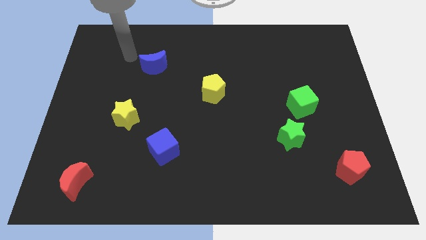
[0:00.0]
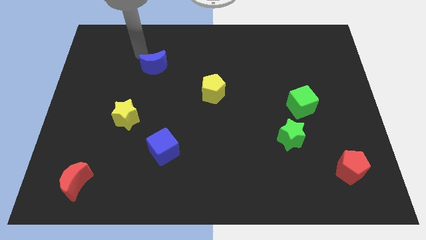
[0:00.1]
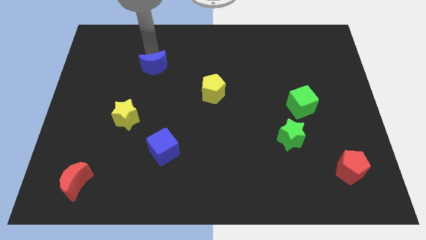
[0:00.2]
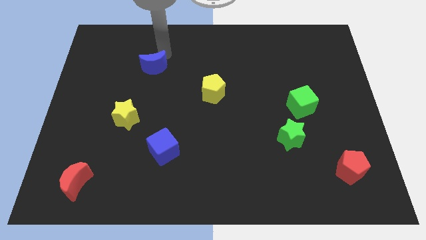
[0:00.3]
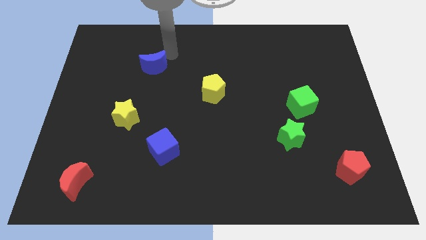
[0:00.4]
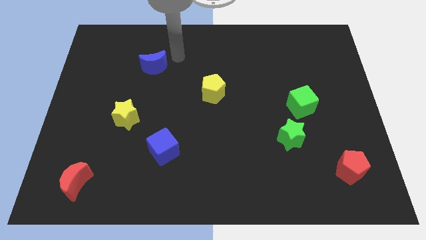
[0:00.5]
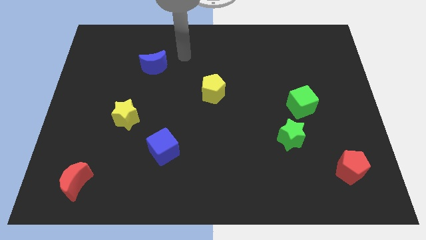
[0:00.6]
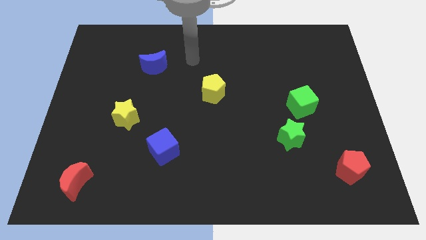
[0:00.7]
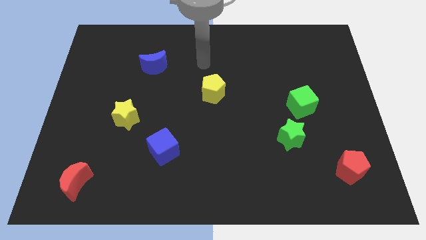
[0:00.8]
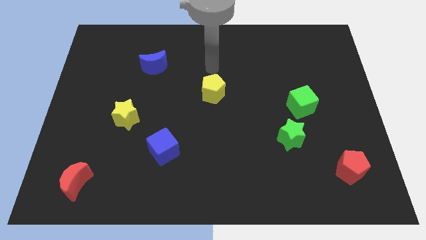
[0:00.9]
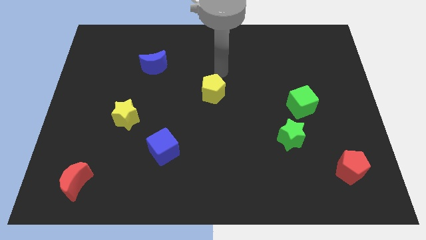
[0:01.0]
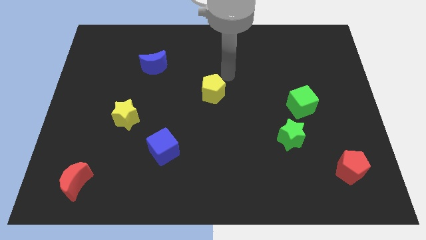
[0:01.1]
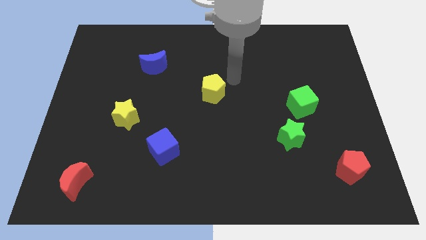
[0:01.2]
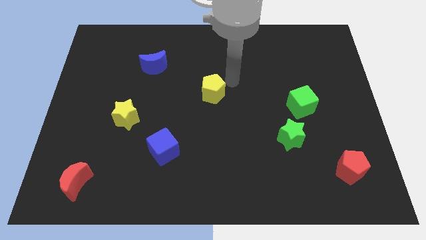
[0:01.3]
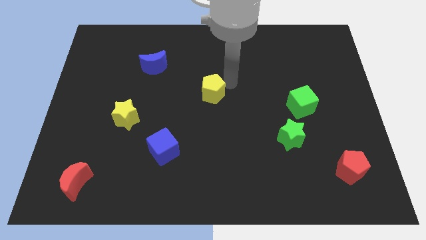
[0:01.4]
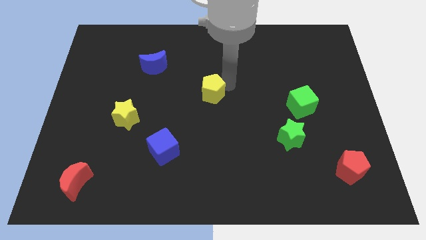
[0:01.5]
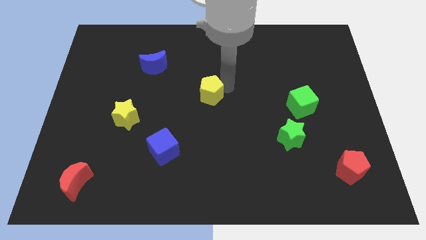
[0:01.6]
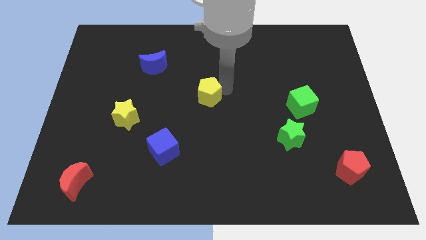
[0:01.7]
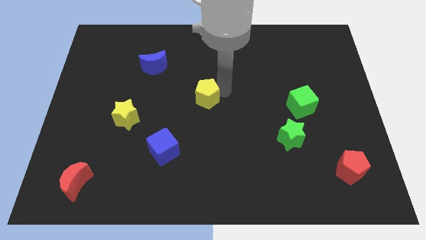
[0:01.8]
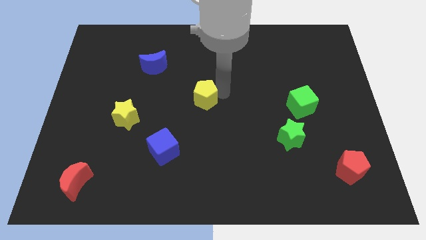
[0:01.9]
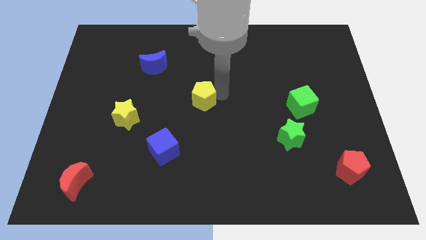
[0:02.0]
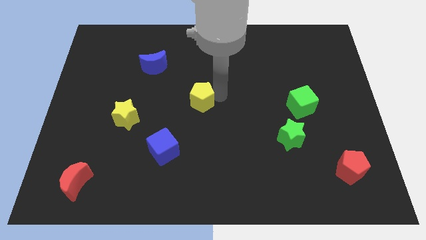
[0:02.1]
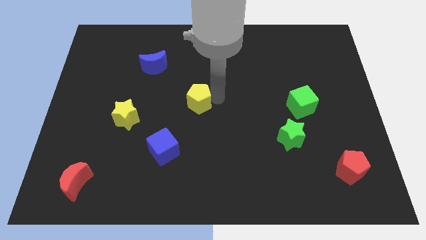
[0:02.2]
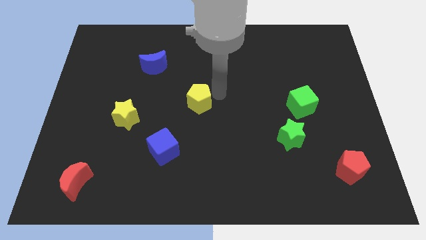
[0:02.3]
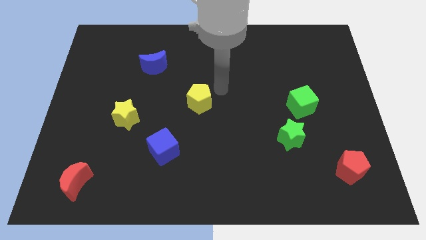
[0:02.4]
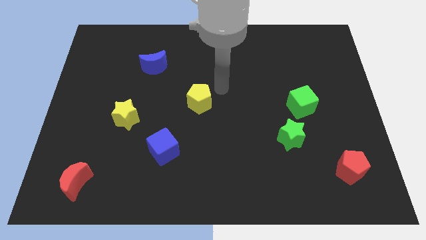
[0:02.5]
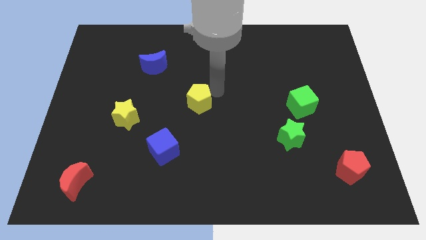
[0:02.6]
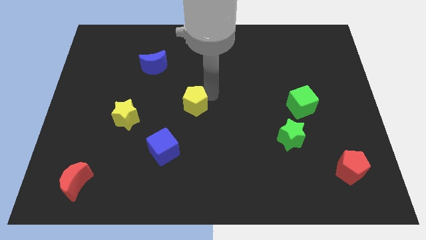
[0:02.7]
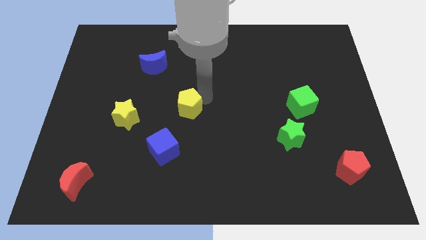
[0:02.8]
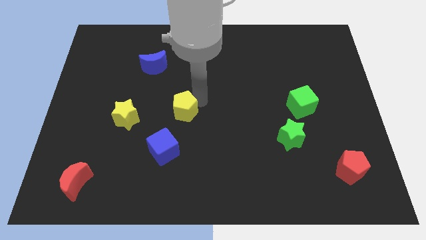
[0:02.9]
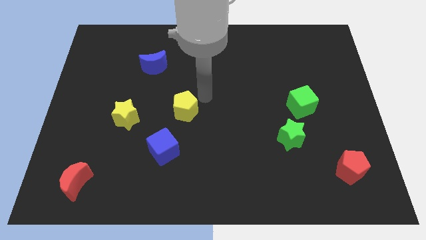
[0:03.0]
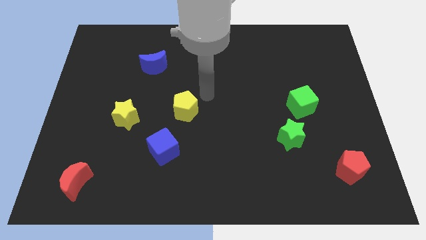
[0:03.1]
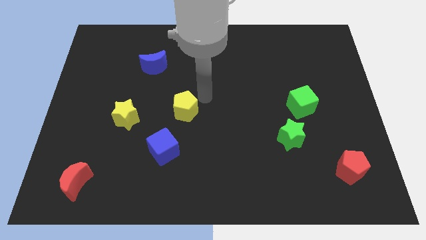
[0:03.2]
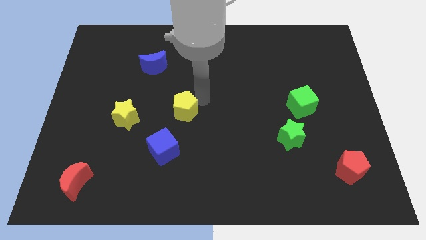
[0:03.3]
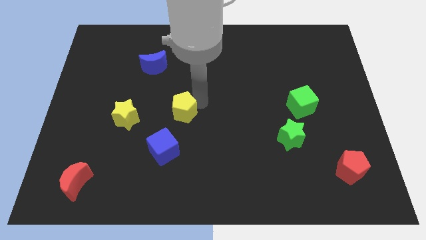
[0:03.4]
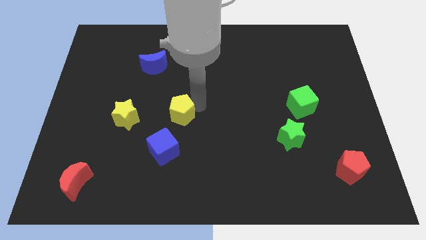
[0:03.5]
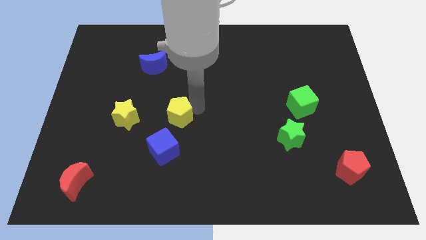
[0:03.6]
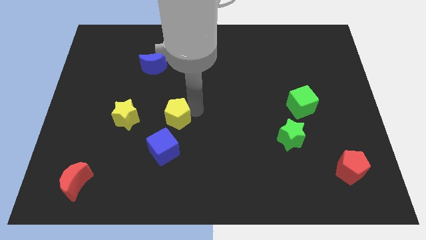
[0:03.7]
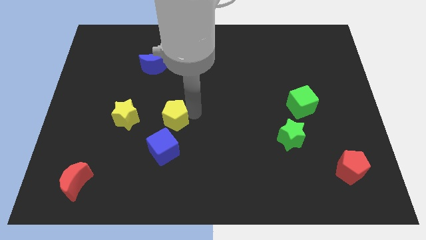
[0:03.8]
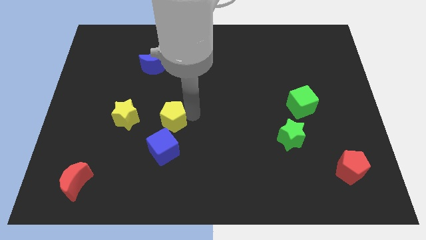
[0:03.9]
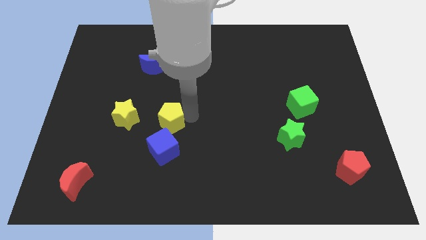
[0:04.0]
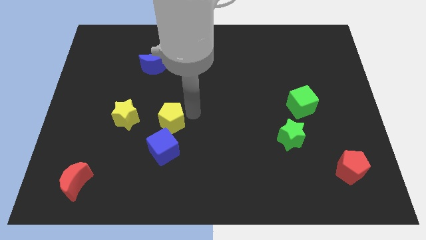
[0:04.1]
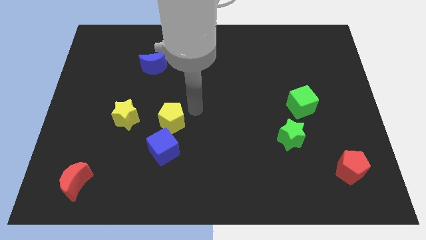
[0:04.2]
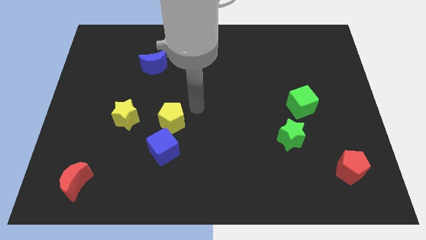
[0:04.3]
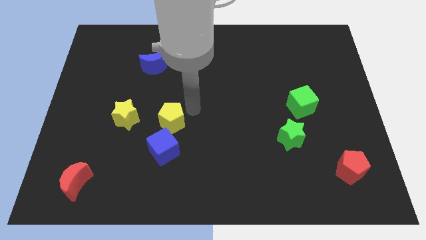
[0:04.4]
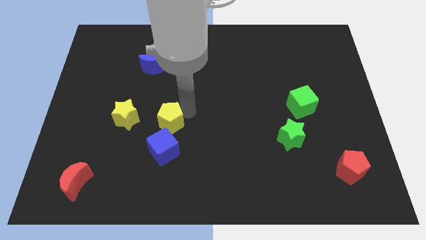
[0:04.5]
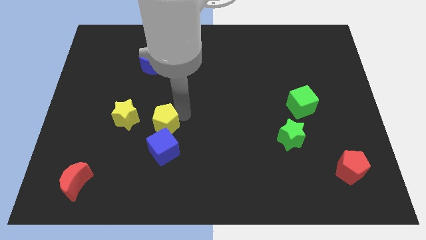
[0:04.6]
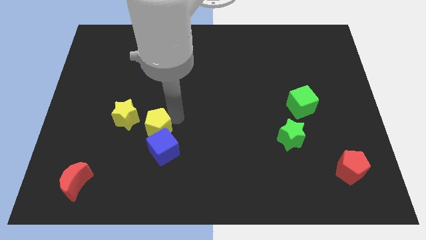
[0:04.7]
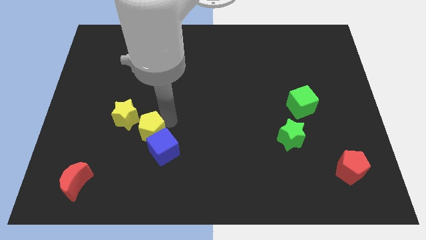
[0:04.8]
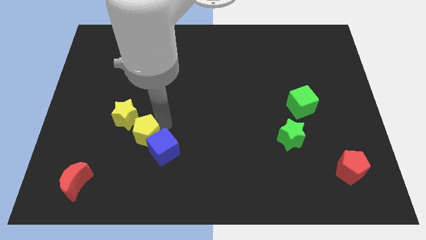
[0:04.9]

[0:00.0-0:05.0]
move the yellow pentagon just left of the blue cube

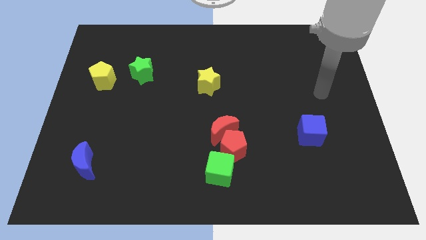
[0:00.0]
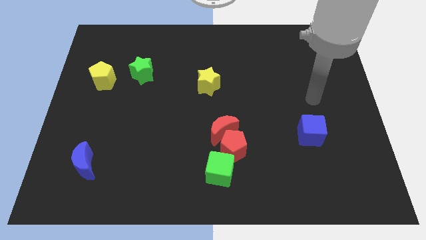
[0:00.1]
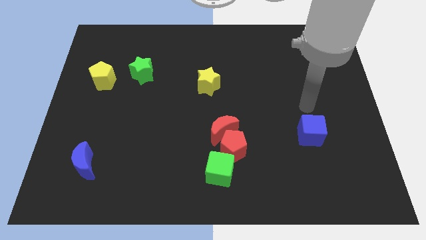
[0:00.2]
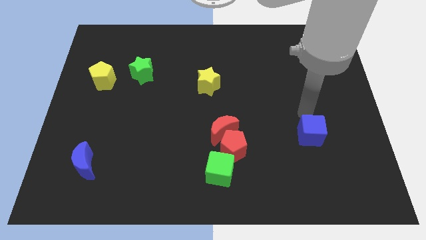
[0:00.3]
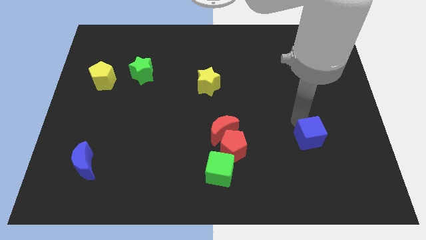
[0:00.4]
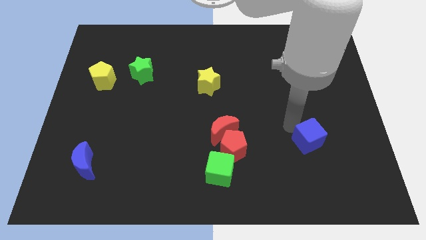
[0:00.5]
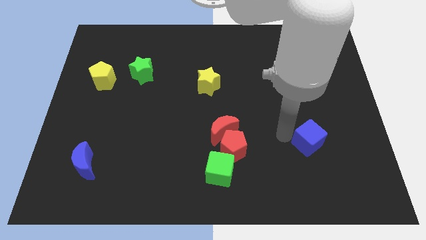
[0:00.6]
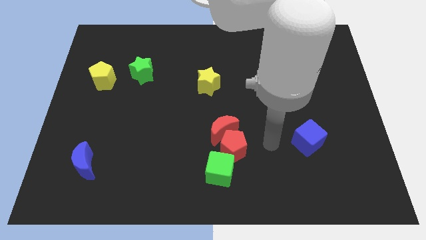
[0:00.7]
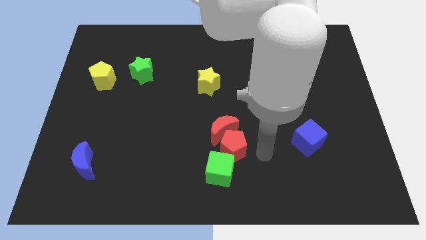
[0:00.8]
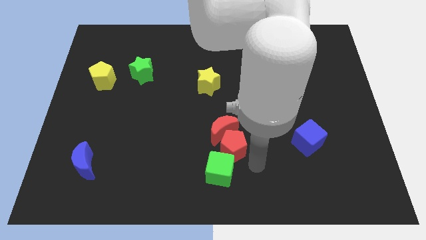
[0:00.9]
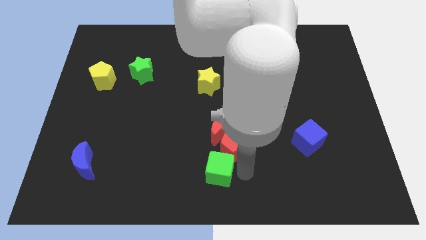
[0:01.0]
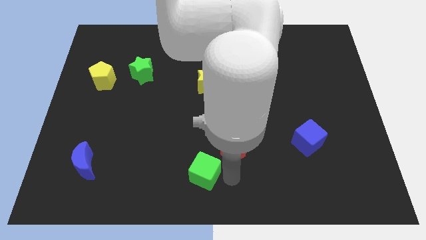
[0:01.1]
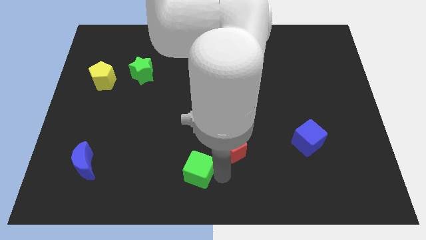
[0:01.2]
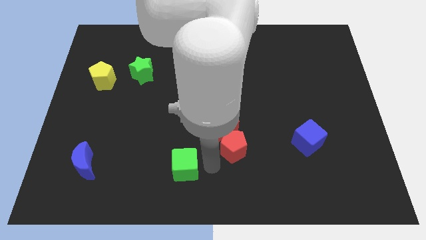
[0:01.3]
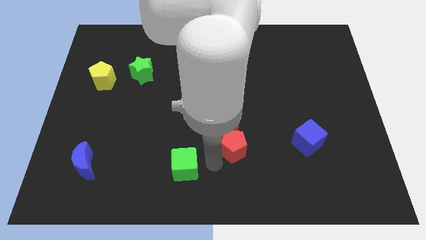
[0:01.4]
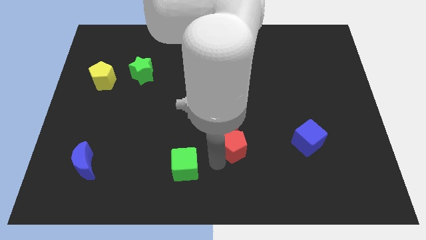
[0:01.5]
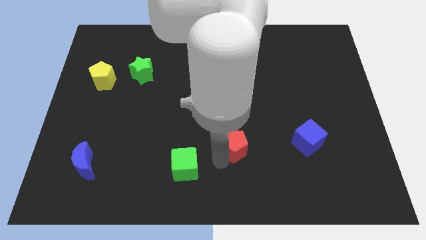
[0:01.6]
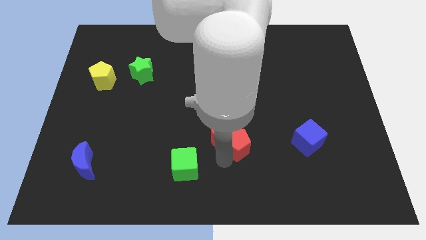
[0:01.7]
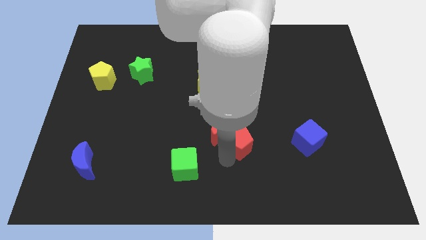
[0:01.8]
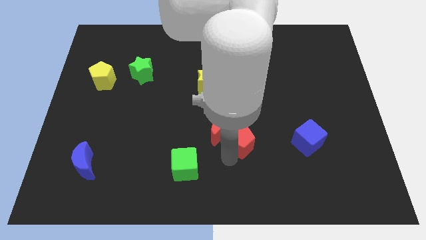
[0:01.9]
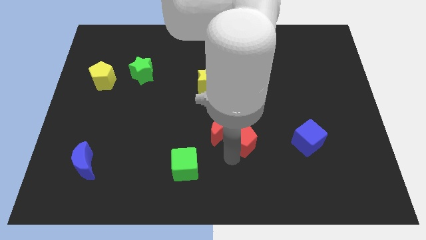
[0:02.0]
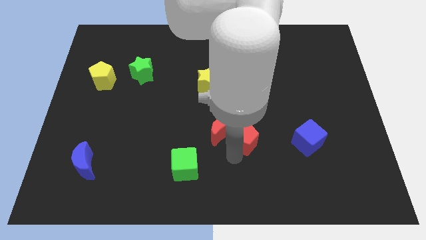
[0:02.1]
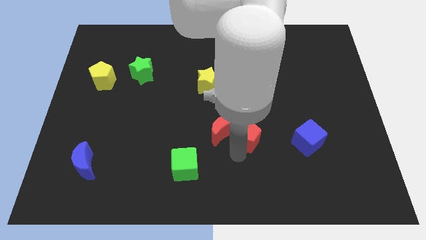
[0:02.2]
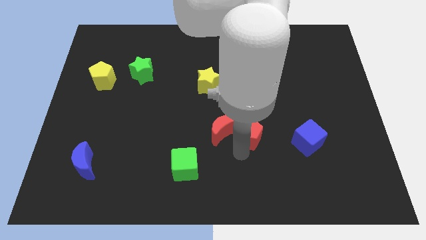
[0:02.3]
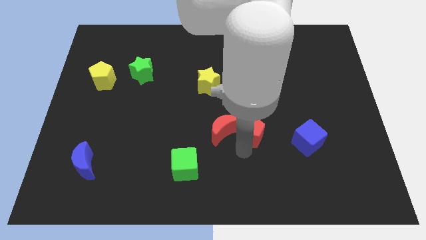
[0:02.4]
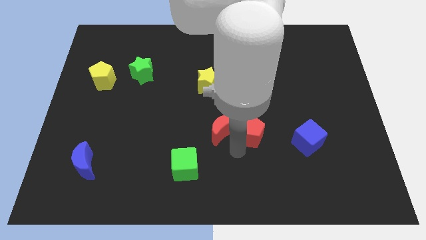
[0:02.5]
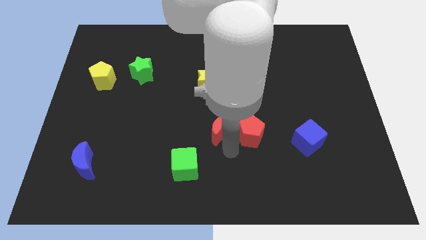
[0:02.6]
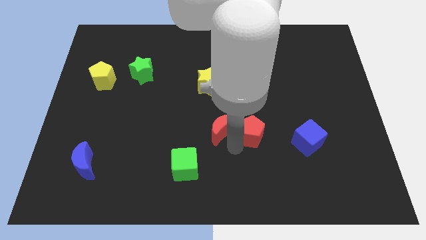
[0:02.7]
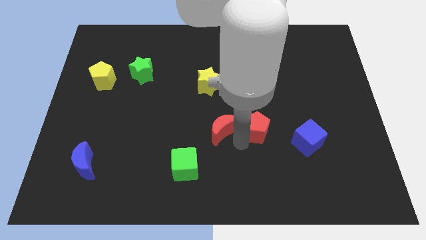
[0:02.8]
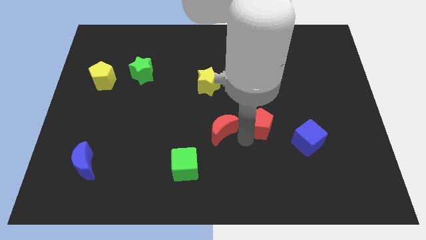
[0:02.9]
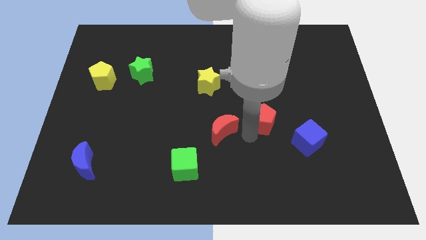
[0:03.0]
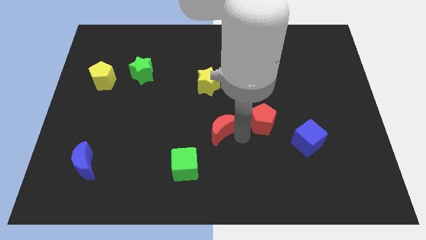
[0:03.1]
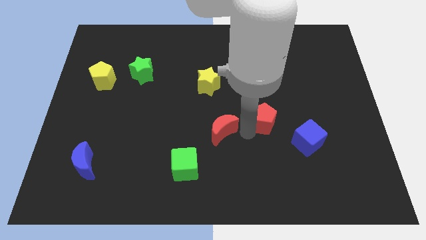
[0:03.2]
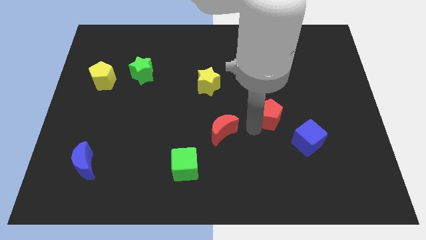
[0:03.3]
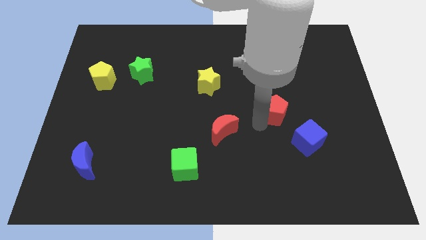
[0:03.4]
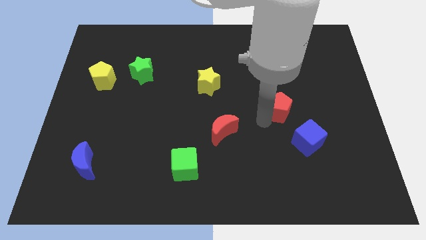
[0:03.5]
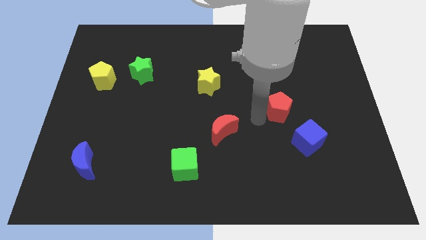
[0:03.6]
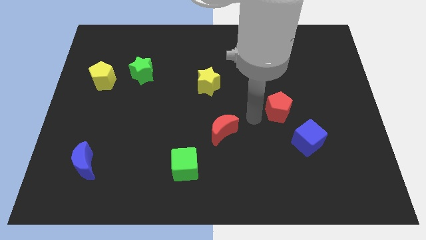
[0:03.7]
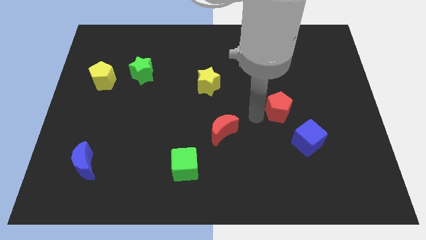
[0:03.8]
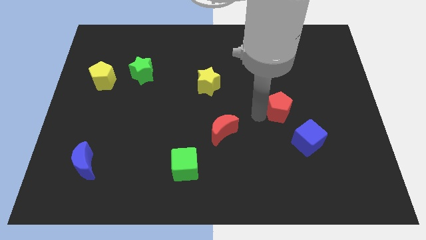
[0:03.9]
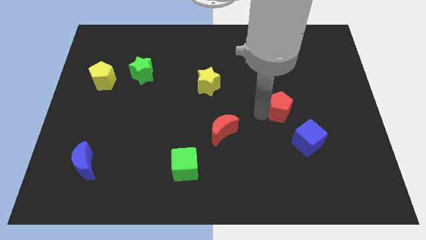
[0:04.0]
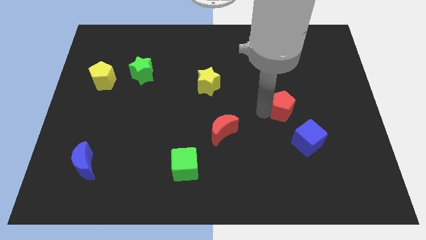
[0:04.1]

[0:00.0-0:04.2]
slide the red pentagon above the blue cube
